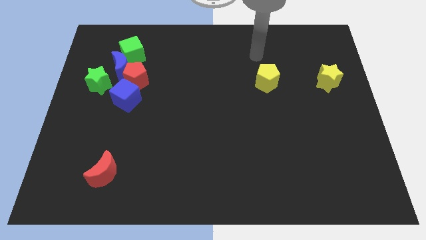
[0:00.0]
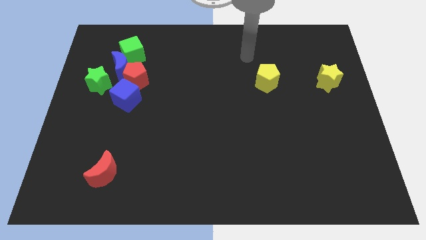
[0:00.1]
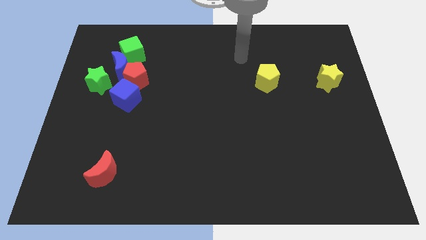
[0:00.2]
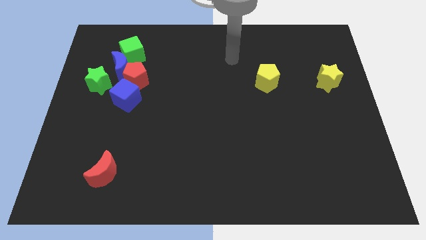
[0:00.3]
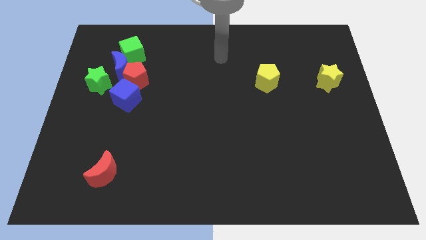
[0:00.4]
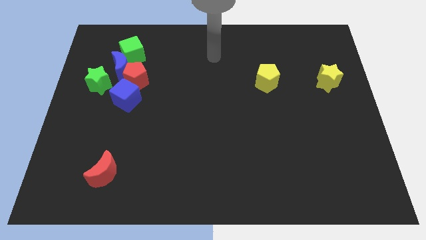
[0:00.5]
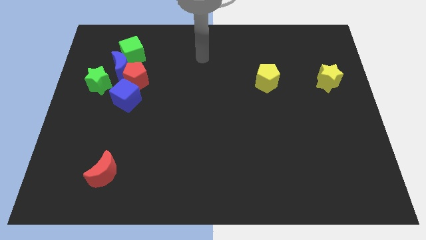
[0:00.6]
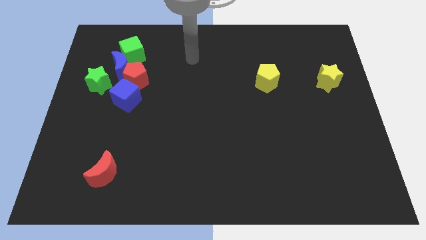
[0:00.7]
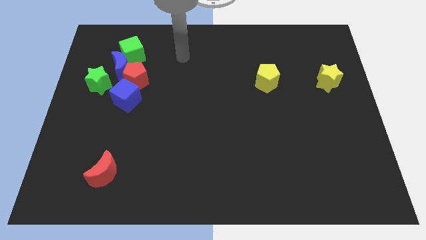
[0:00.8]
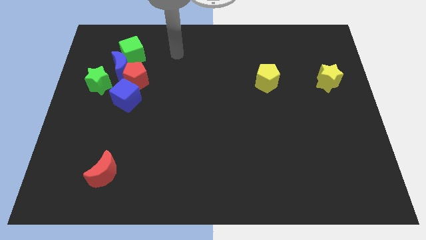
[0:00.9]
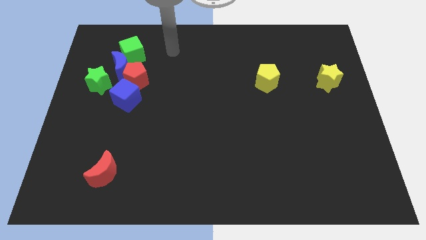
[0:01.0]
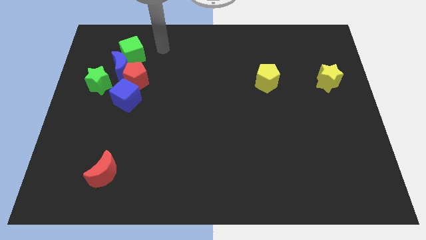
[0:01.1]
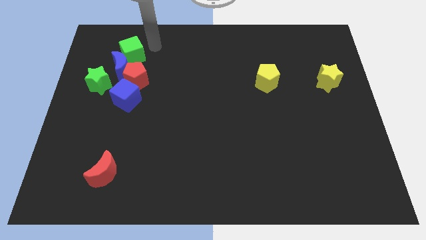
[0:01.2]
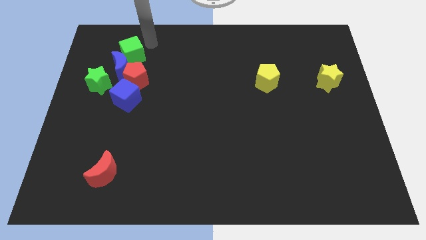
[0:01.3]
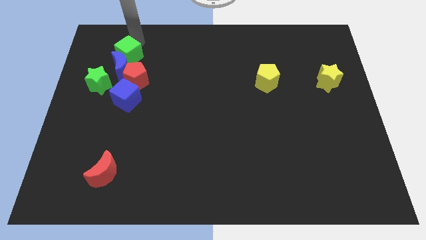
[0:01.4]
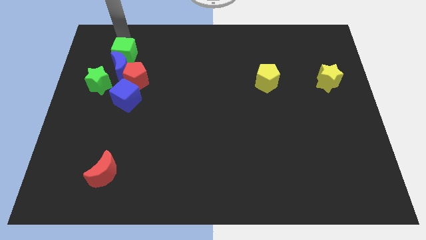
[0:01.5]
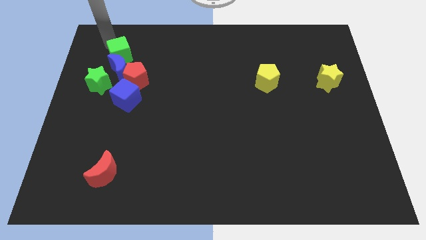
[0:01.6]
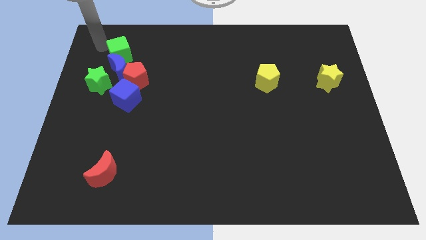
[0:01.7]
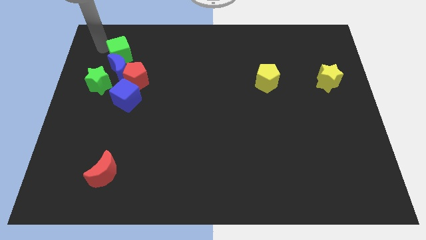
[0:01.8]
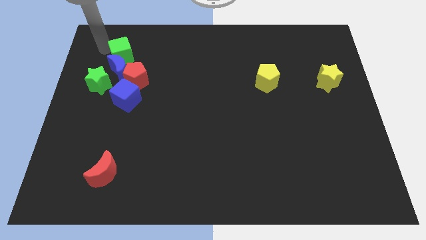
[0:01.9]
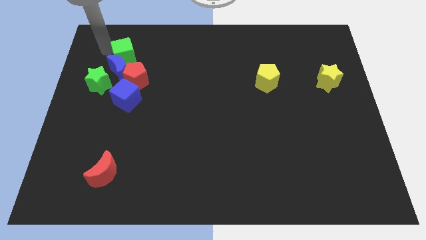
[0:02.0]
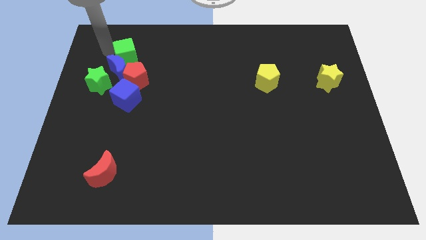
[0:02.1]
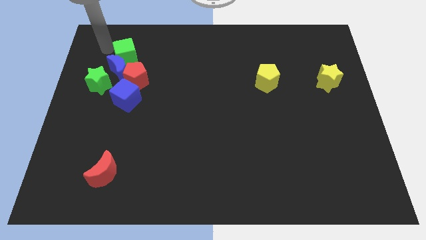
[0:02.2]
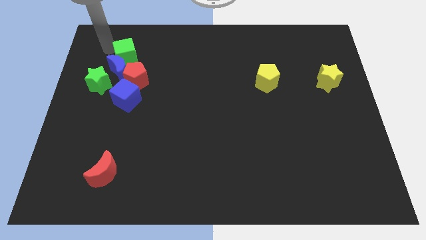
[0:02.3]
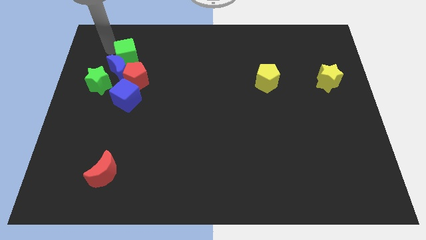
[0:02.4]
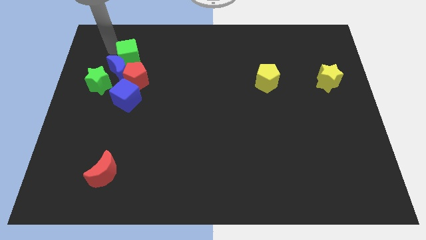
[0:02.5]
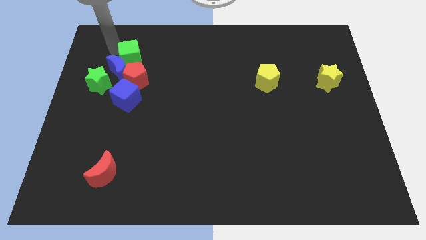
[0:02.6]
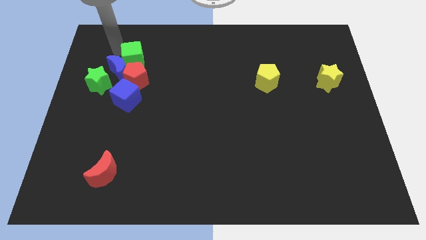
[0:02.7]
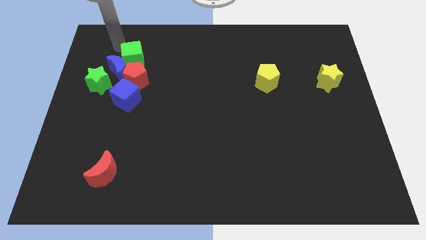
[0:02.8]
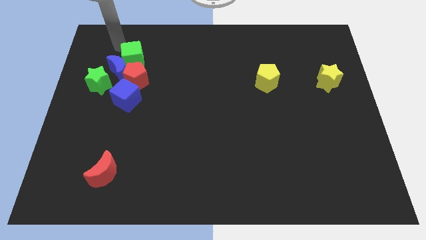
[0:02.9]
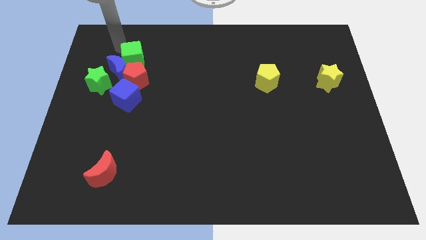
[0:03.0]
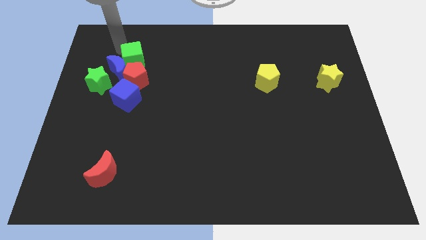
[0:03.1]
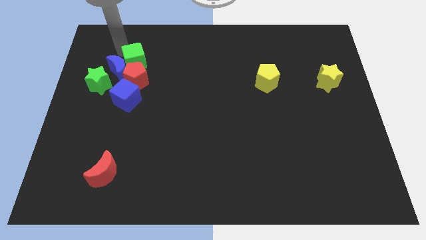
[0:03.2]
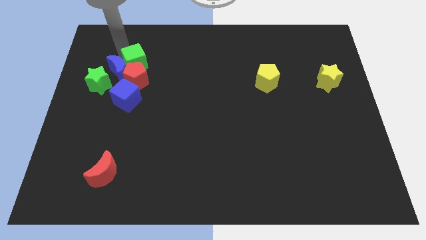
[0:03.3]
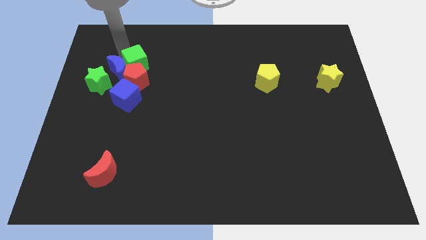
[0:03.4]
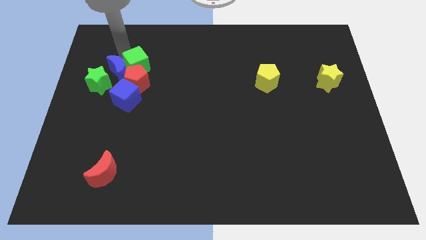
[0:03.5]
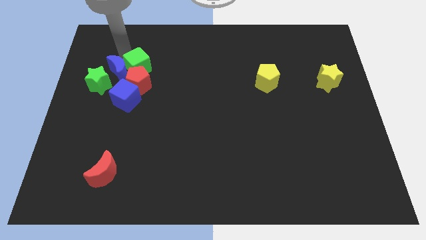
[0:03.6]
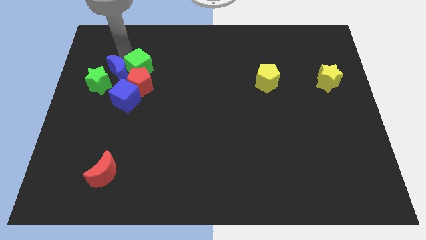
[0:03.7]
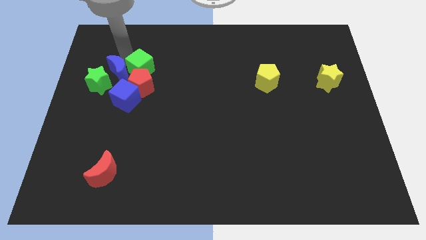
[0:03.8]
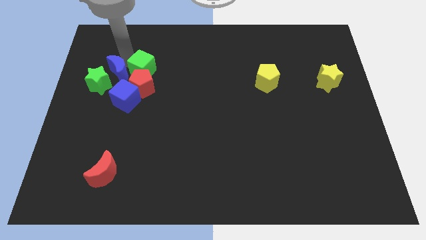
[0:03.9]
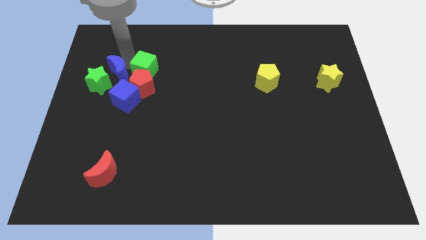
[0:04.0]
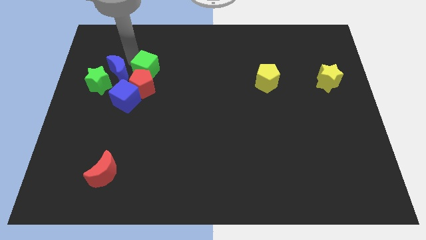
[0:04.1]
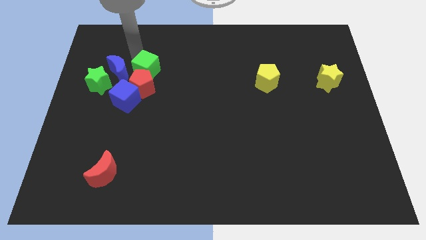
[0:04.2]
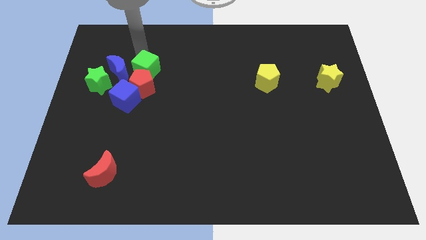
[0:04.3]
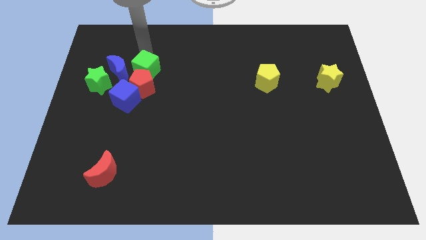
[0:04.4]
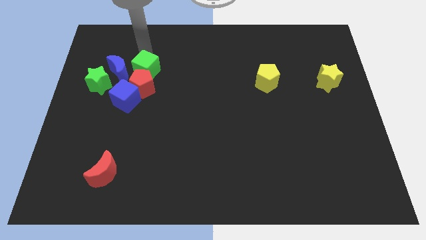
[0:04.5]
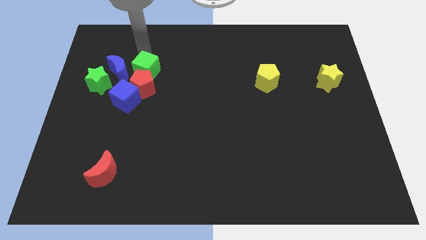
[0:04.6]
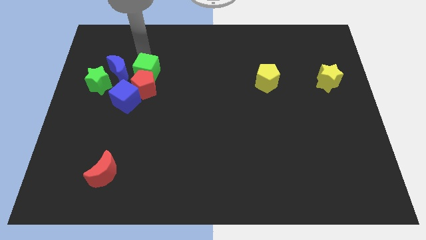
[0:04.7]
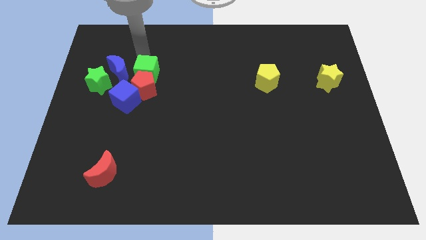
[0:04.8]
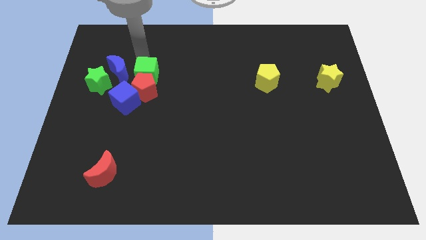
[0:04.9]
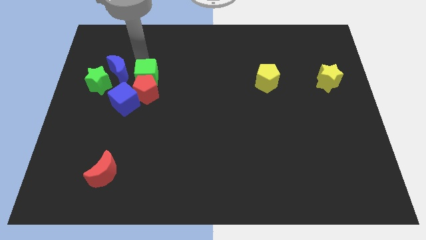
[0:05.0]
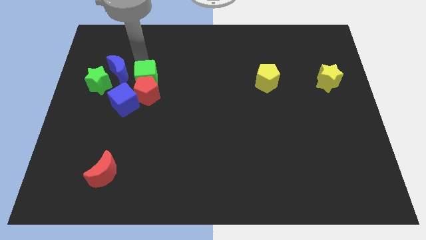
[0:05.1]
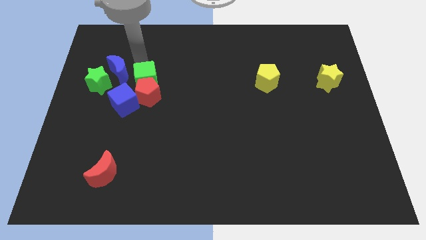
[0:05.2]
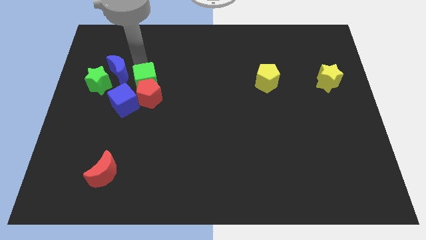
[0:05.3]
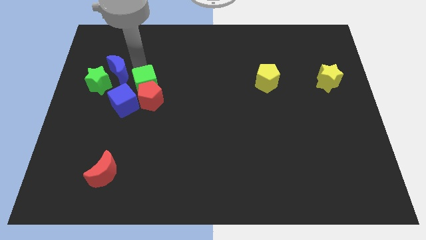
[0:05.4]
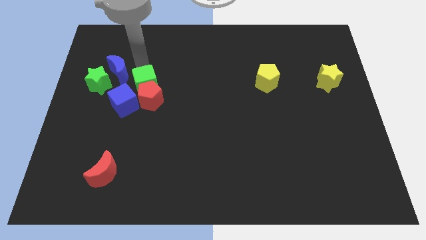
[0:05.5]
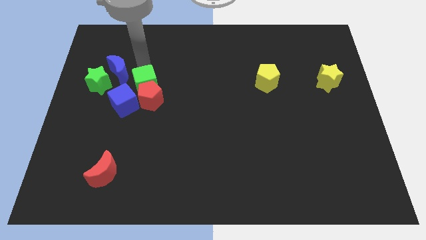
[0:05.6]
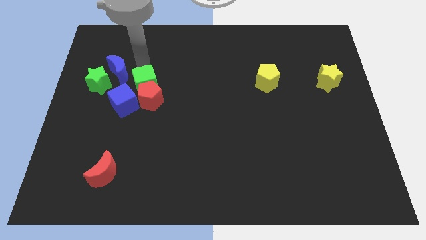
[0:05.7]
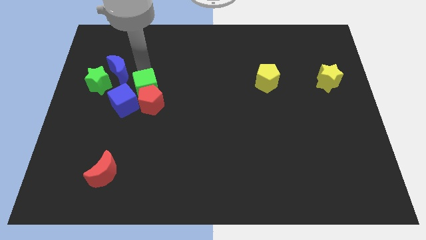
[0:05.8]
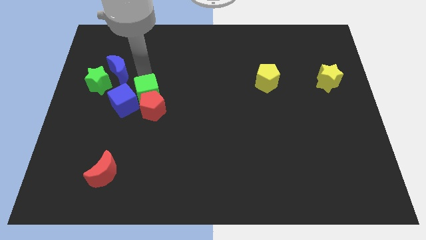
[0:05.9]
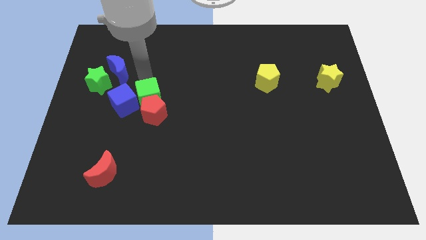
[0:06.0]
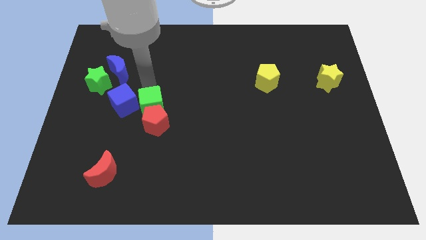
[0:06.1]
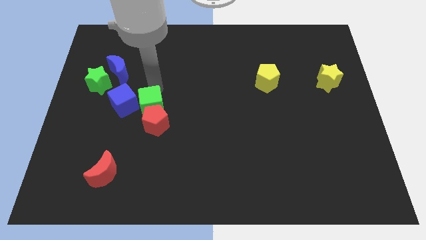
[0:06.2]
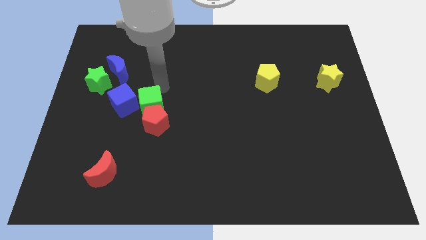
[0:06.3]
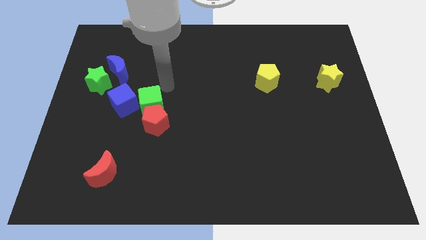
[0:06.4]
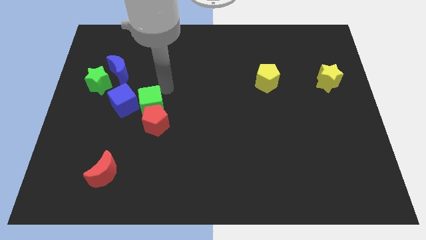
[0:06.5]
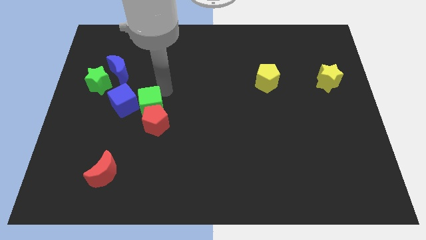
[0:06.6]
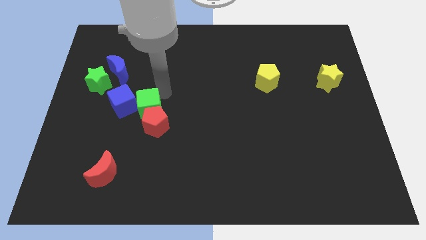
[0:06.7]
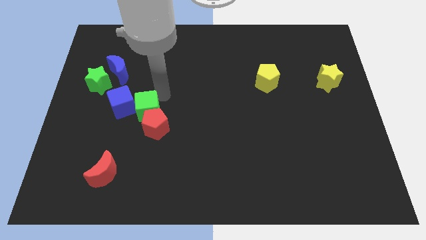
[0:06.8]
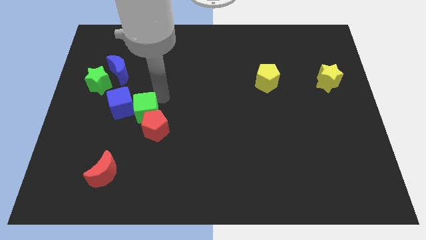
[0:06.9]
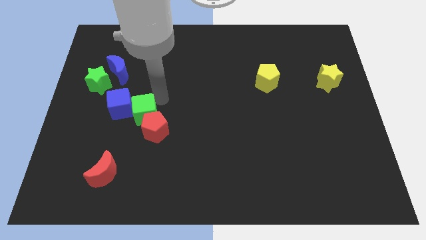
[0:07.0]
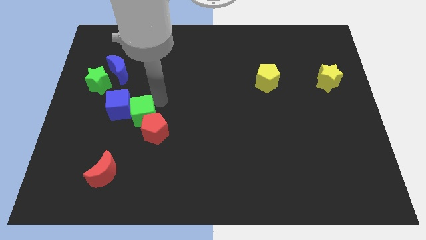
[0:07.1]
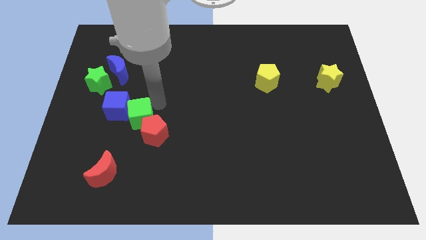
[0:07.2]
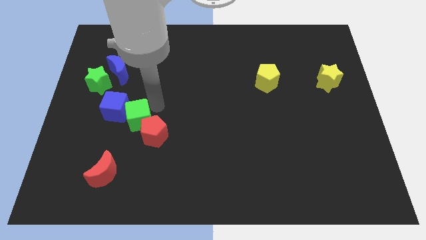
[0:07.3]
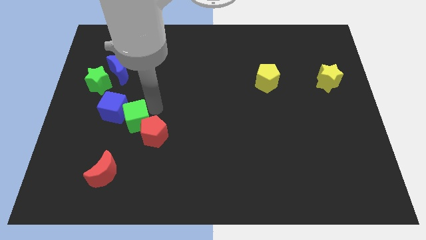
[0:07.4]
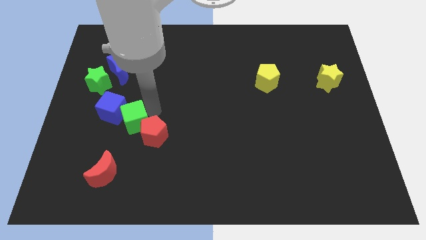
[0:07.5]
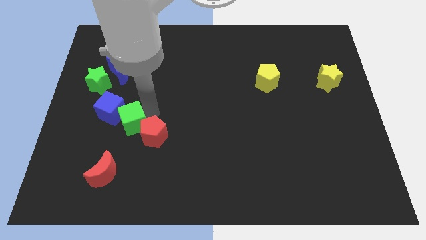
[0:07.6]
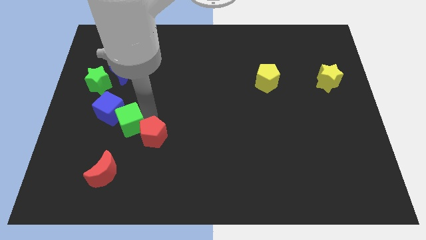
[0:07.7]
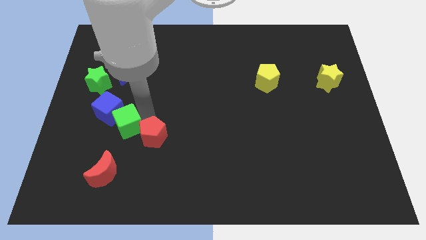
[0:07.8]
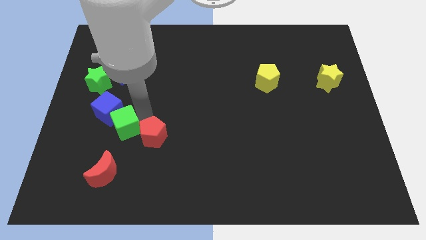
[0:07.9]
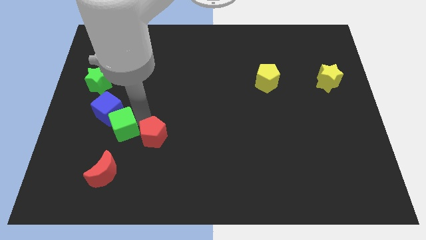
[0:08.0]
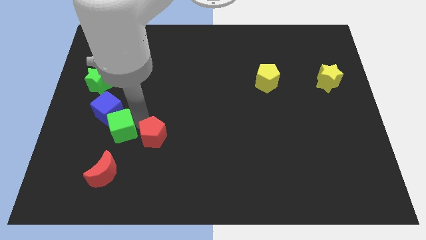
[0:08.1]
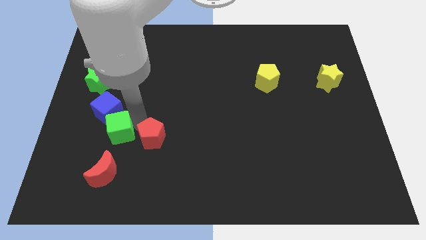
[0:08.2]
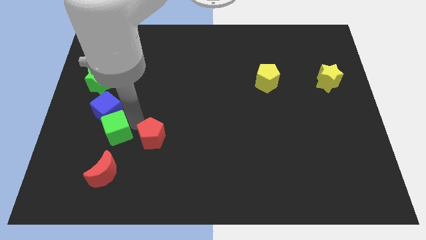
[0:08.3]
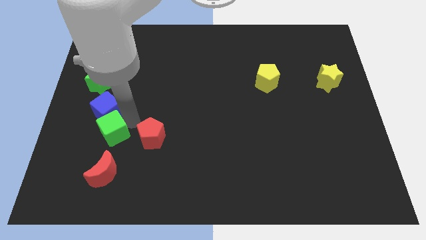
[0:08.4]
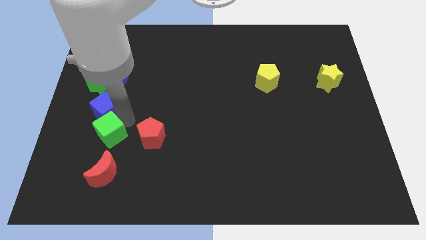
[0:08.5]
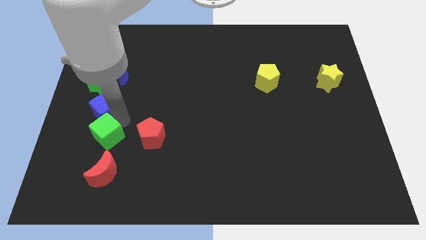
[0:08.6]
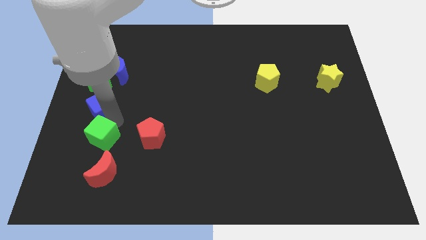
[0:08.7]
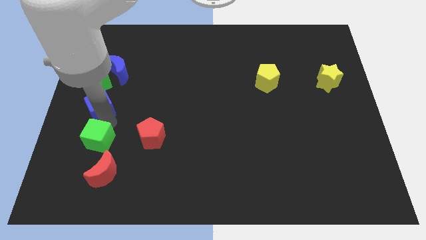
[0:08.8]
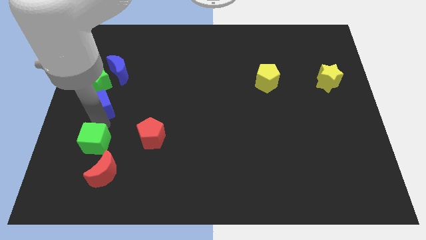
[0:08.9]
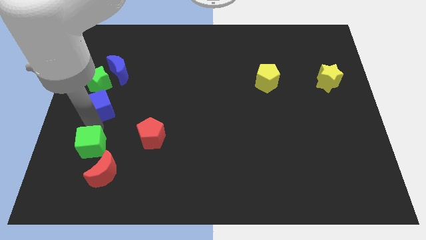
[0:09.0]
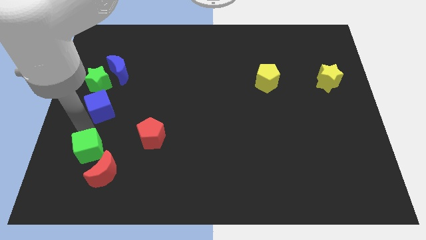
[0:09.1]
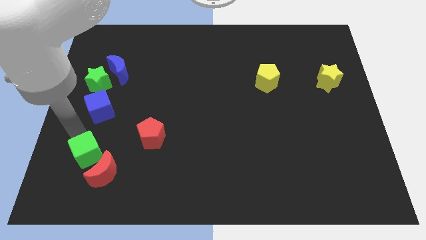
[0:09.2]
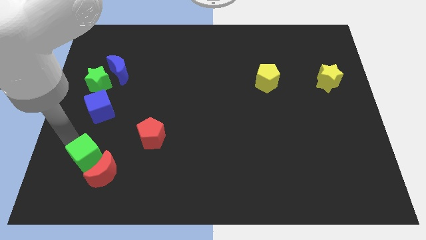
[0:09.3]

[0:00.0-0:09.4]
move the green cube close to the red moon
